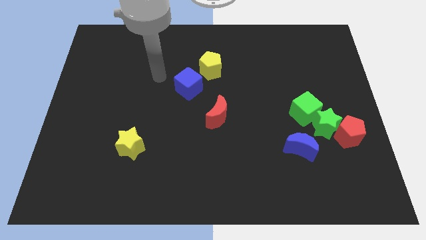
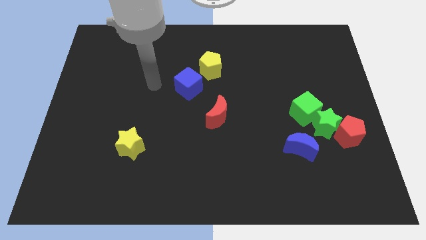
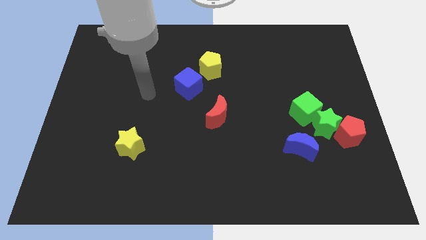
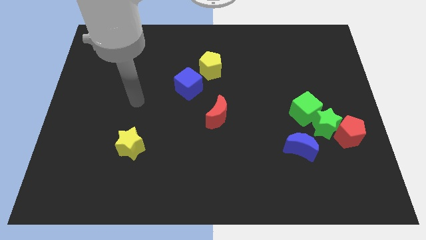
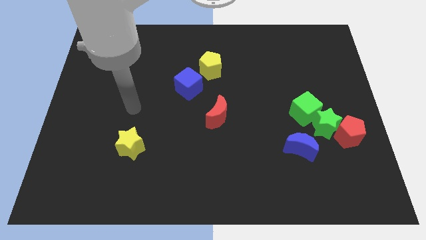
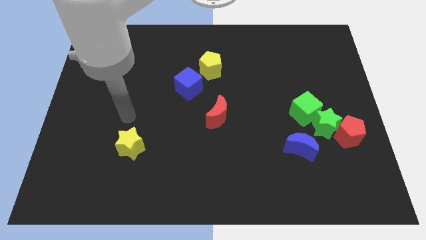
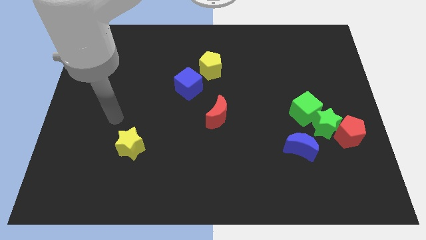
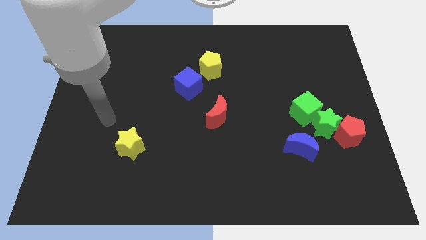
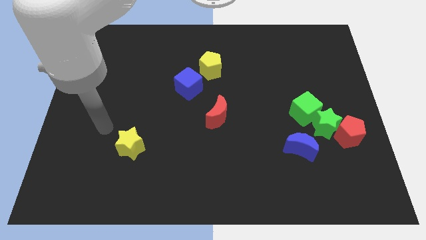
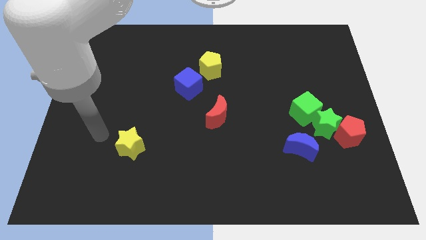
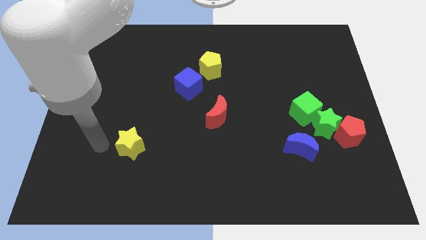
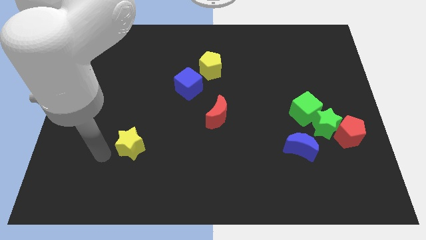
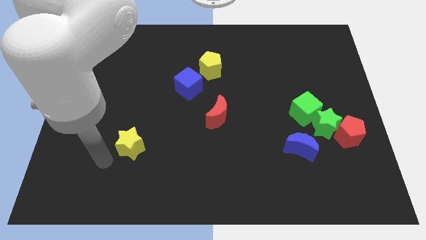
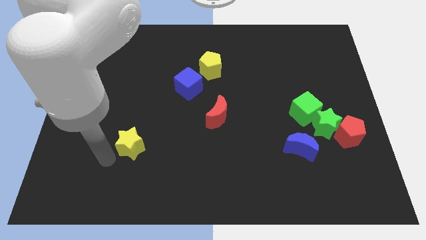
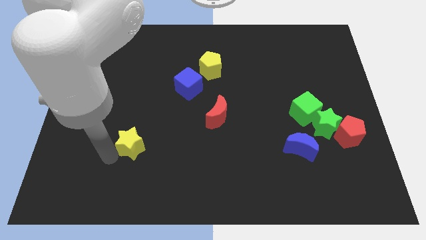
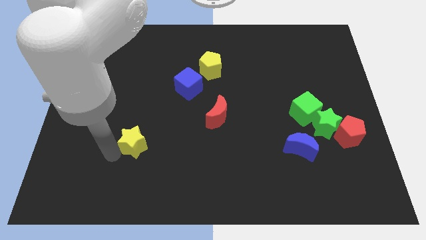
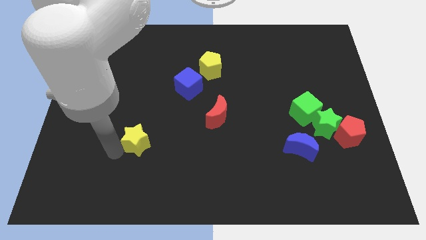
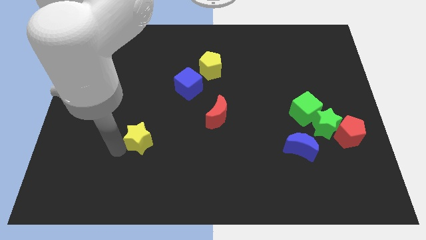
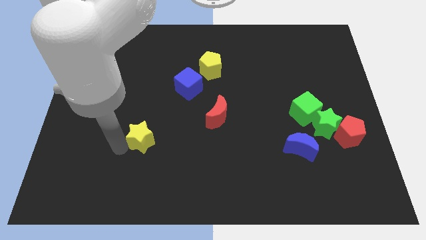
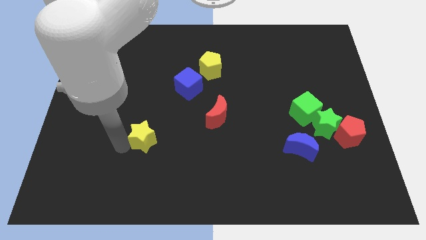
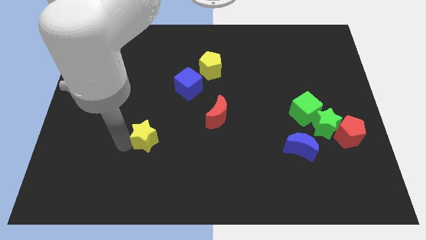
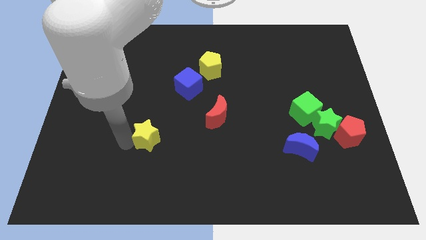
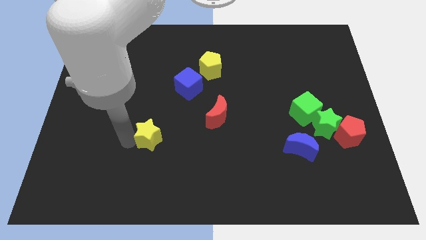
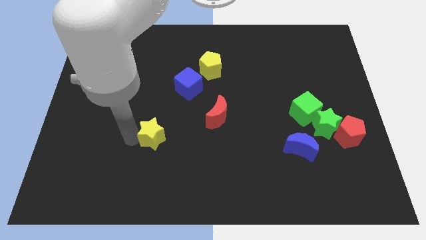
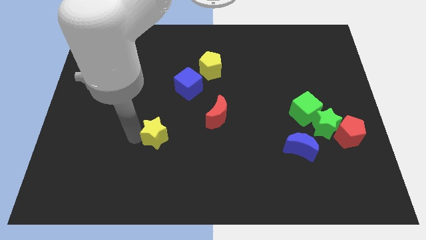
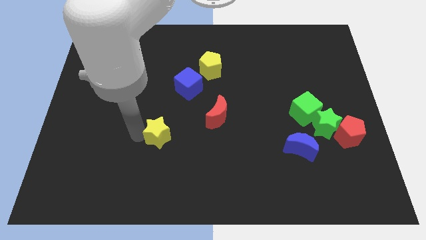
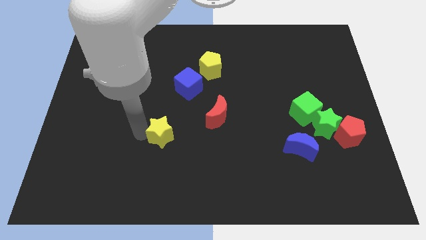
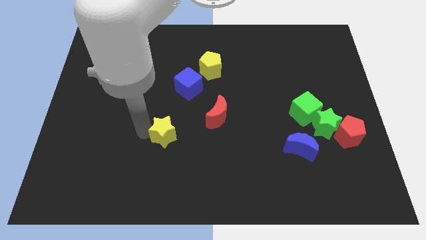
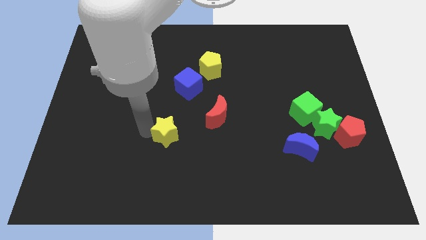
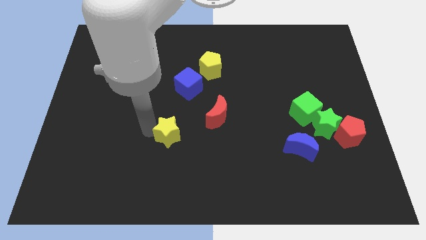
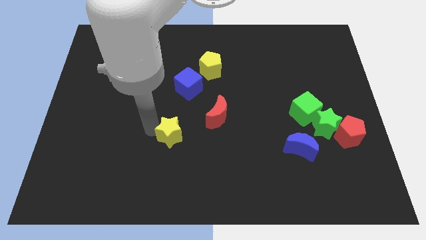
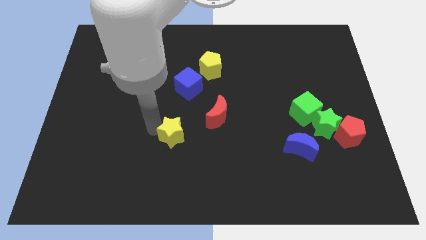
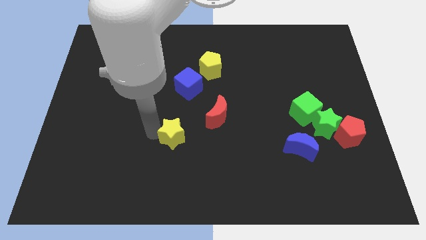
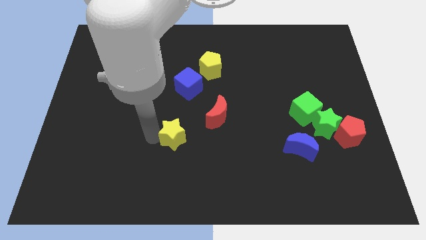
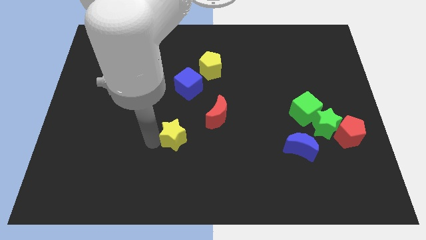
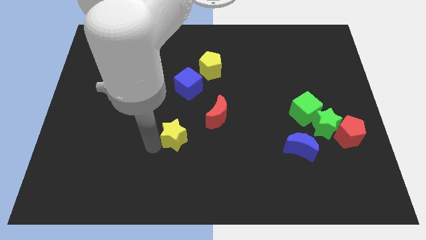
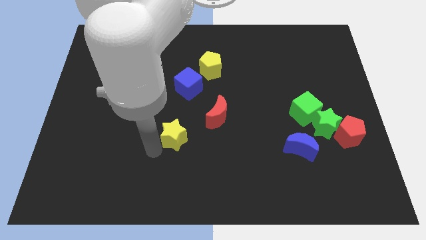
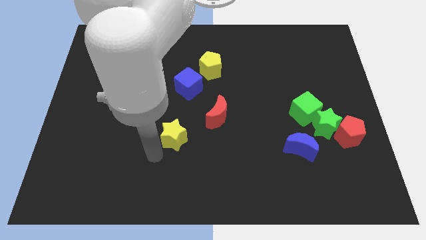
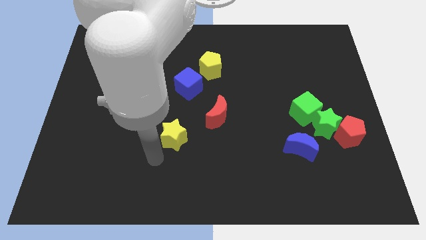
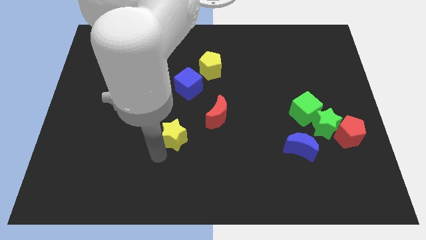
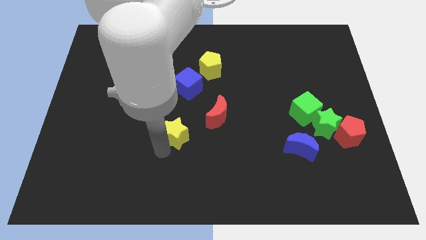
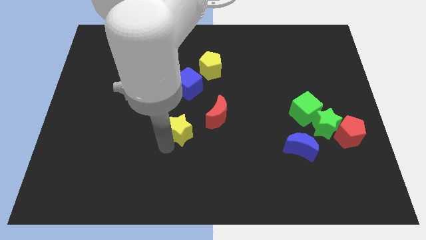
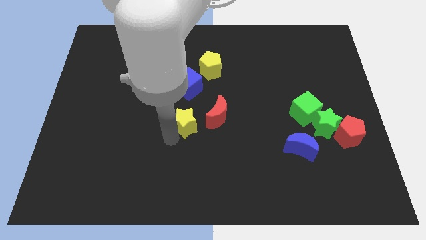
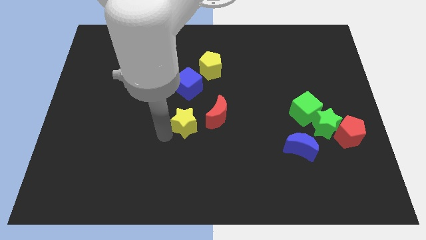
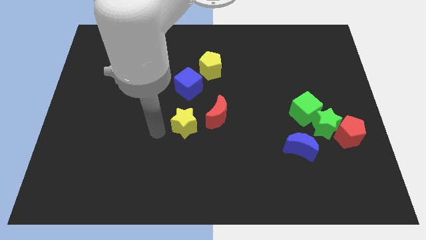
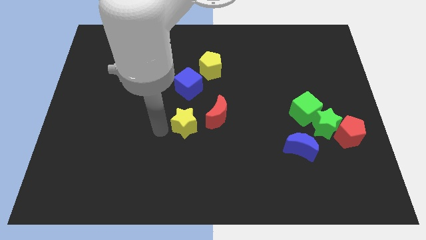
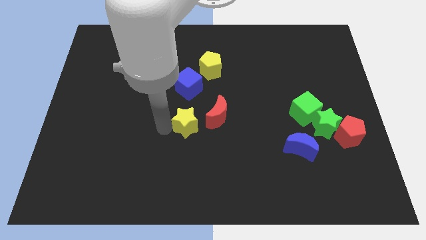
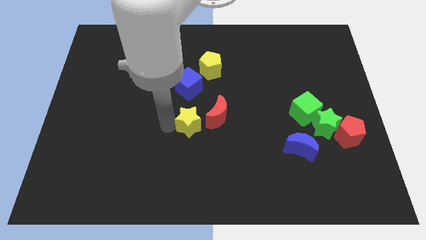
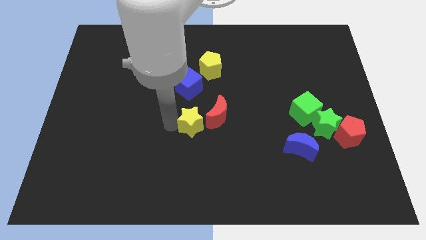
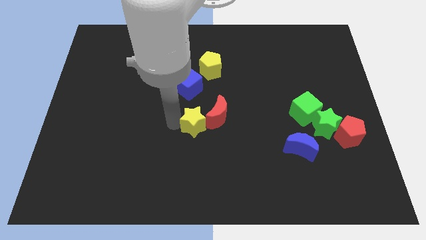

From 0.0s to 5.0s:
put the yellow star next to the red moon

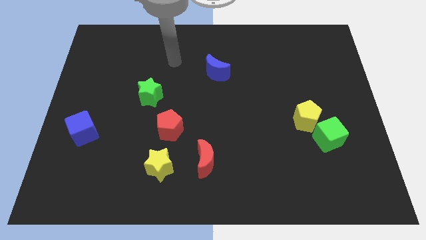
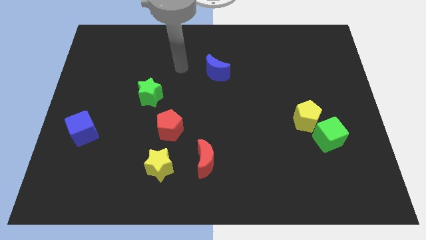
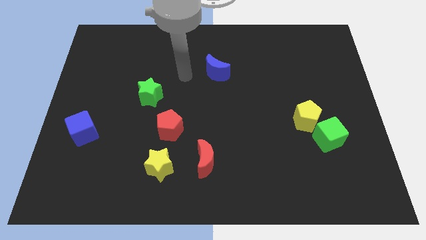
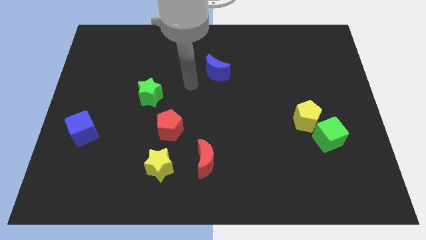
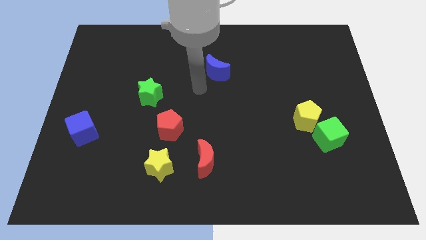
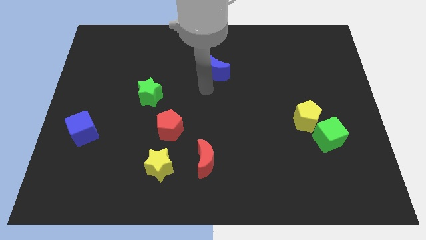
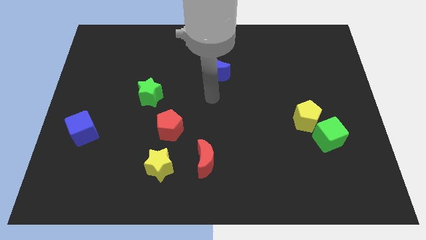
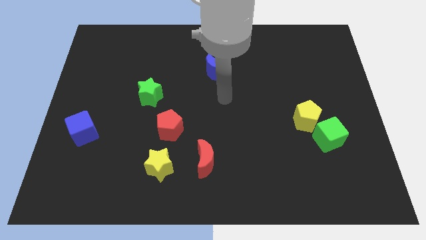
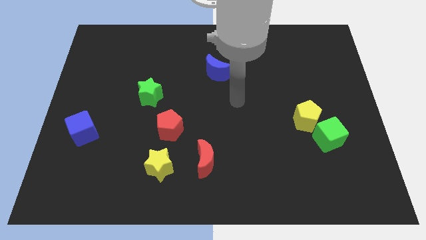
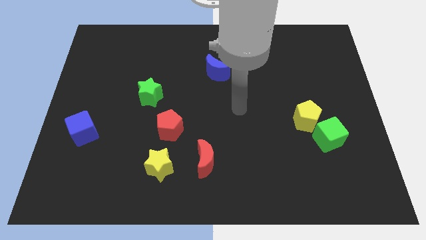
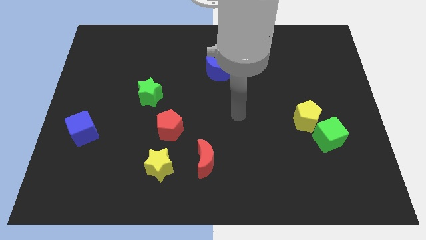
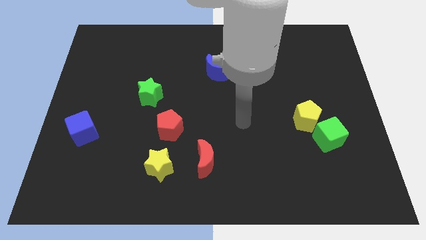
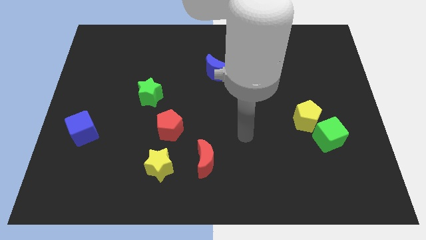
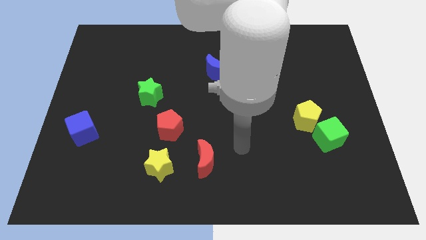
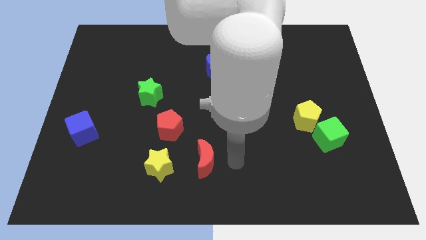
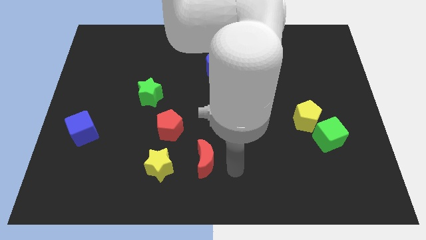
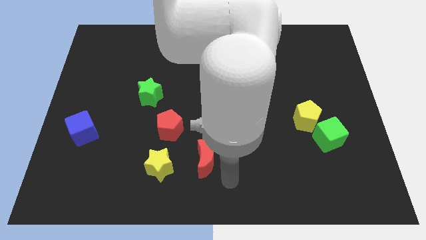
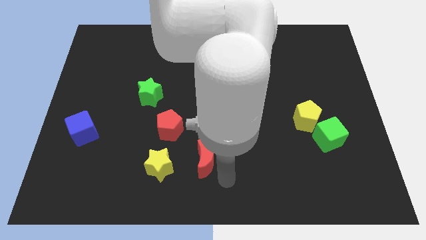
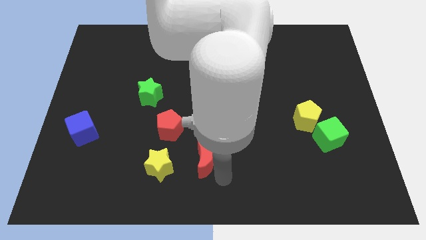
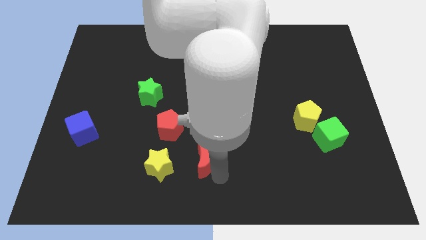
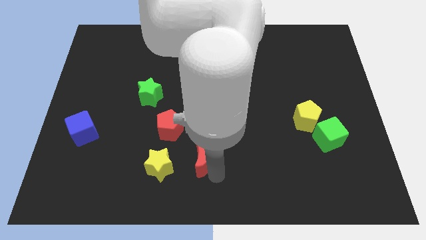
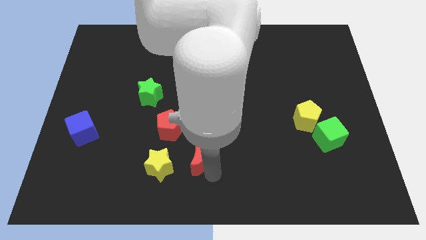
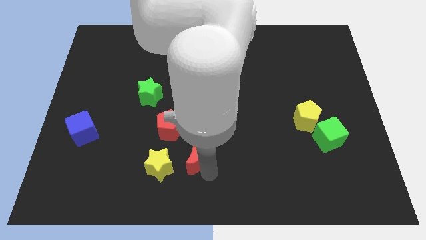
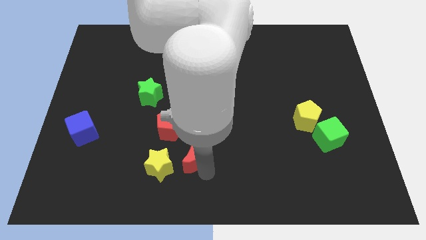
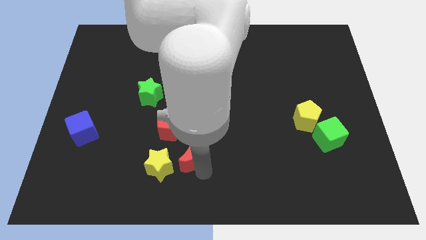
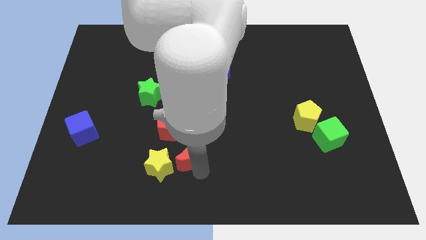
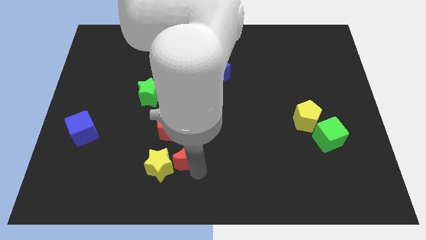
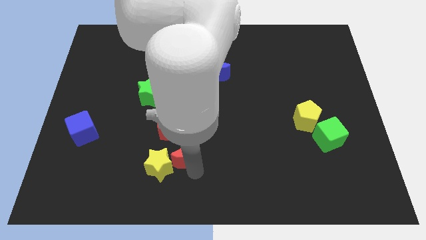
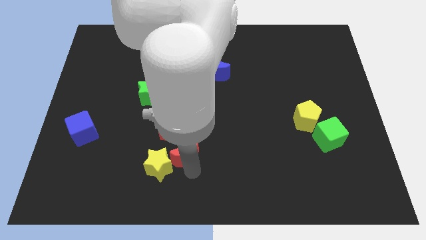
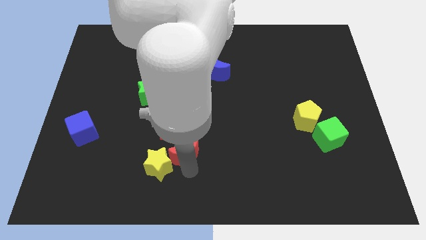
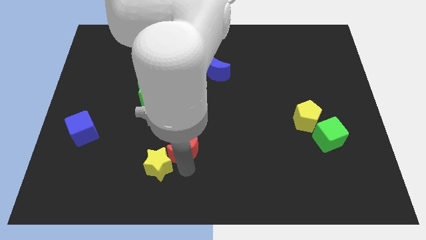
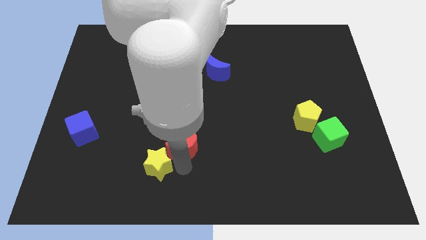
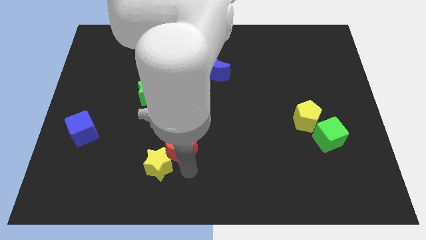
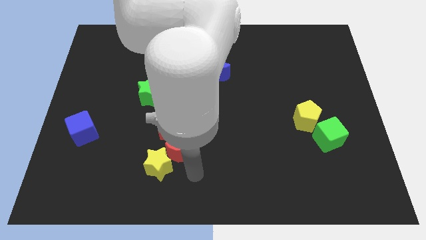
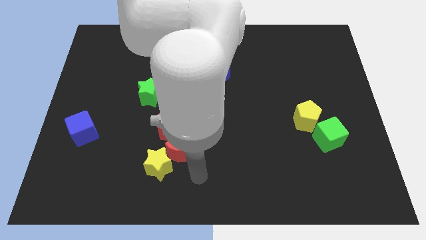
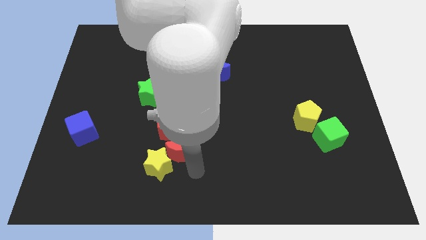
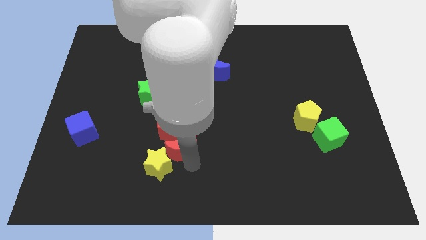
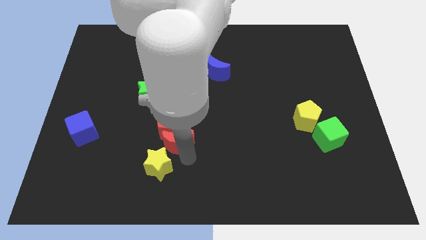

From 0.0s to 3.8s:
put the red moon next to the red pentagon

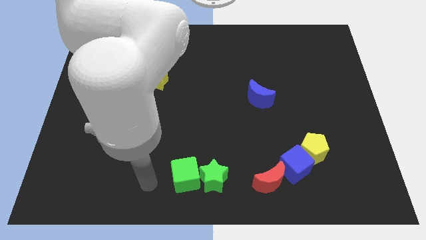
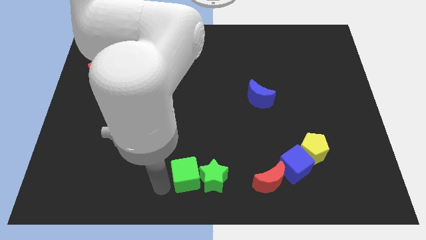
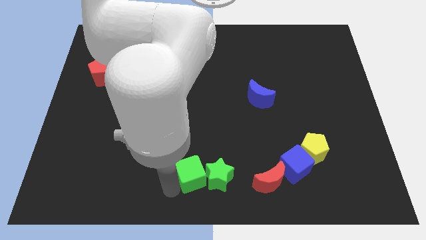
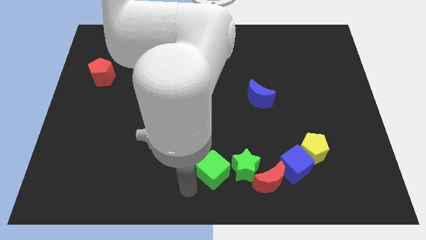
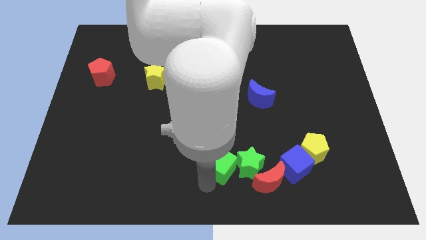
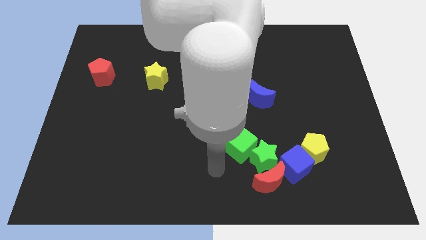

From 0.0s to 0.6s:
move the green star to the blue cube
